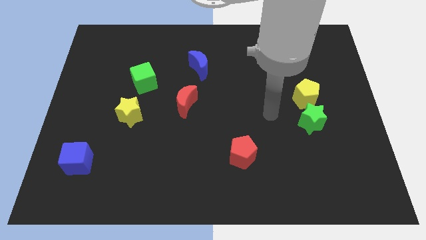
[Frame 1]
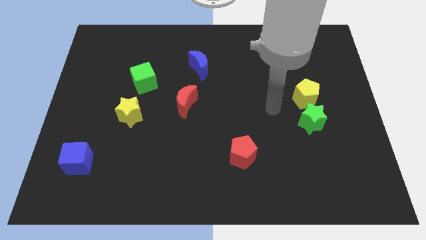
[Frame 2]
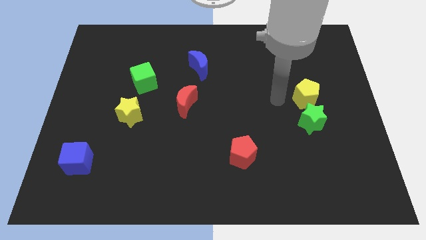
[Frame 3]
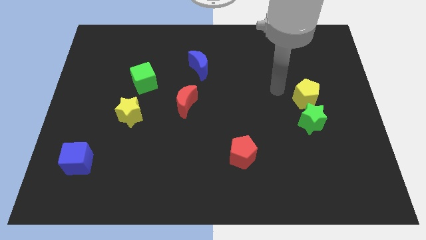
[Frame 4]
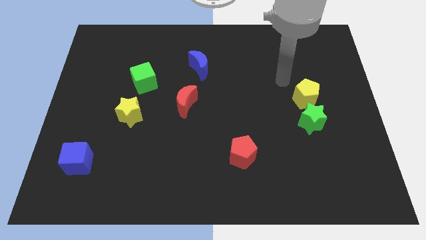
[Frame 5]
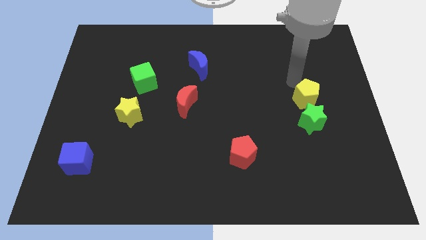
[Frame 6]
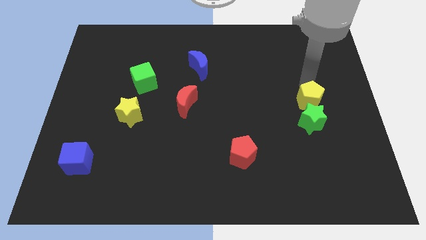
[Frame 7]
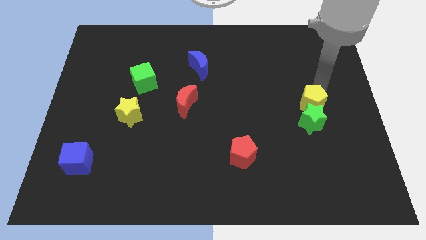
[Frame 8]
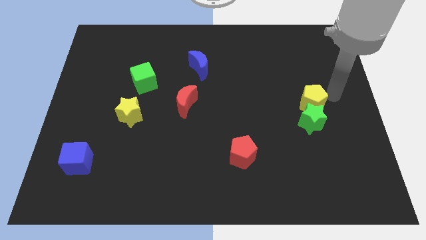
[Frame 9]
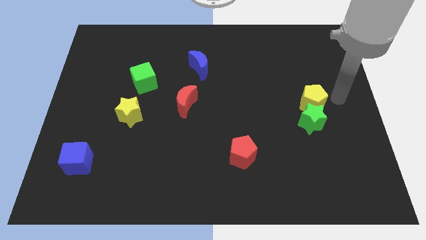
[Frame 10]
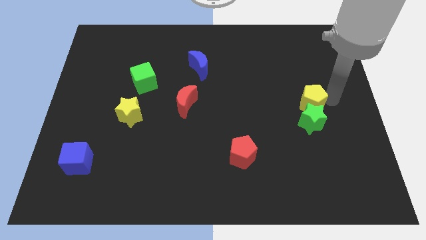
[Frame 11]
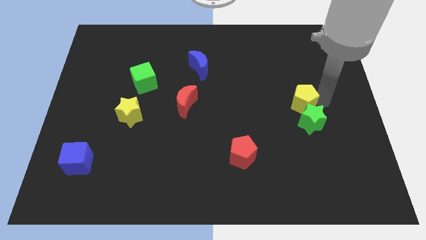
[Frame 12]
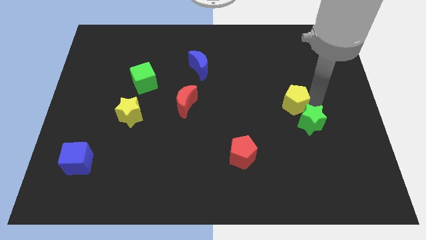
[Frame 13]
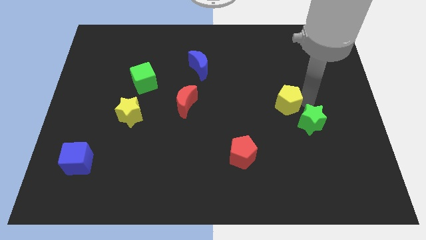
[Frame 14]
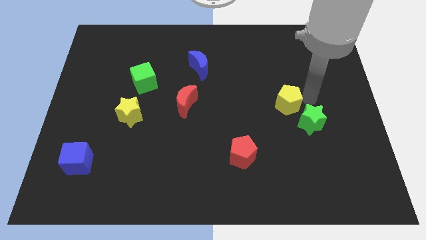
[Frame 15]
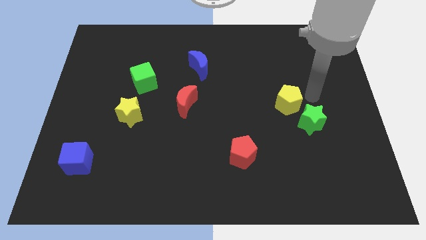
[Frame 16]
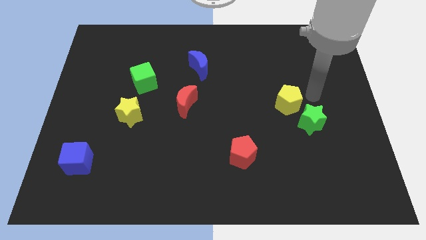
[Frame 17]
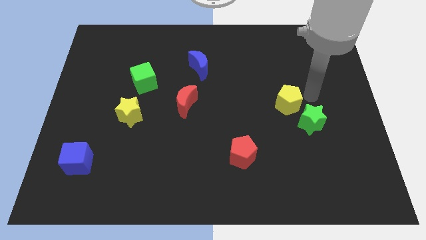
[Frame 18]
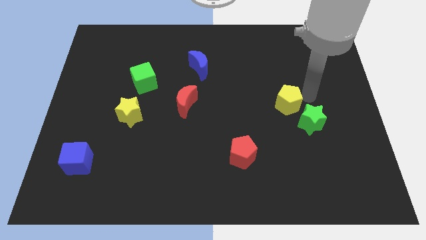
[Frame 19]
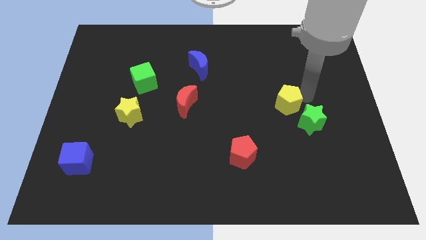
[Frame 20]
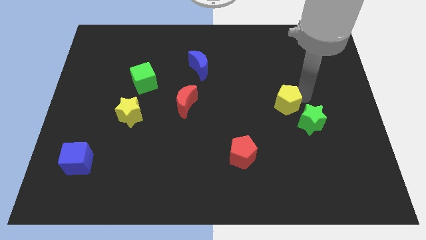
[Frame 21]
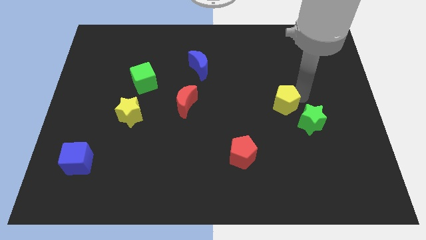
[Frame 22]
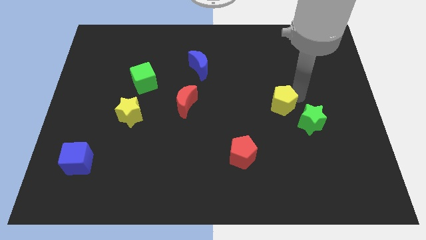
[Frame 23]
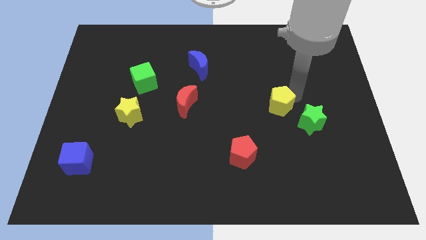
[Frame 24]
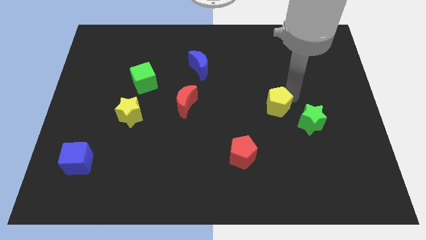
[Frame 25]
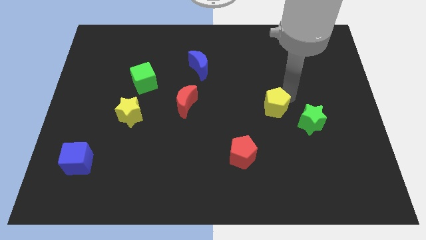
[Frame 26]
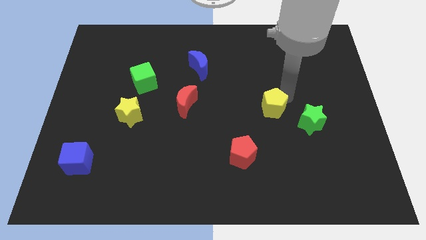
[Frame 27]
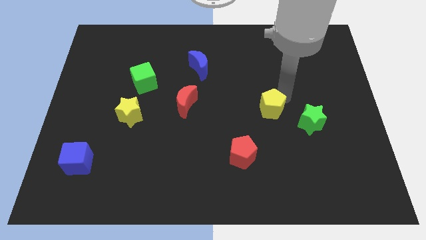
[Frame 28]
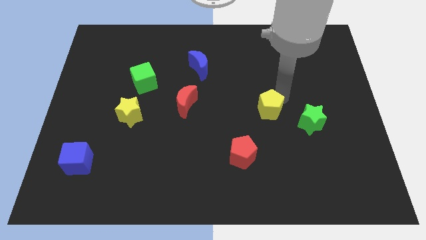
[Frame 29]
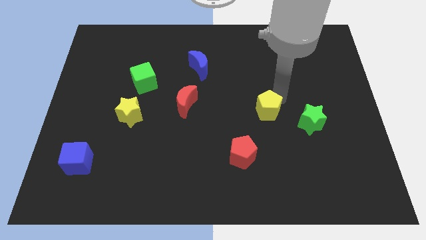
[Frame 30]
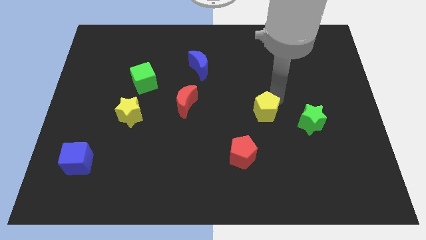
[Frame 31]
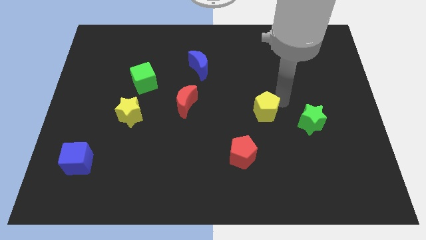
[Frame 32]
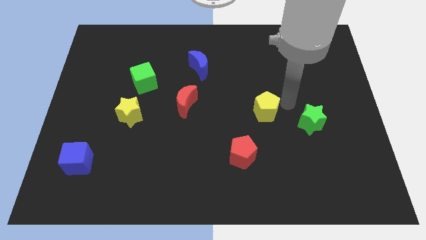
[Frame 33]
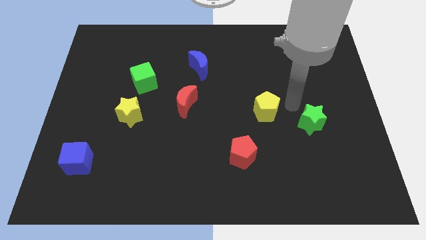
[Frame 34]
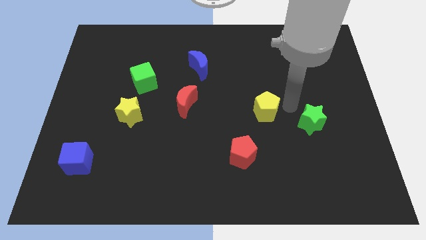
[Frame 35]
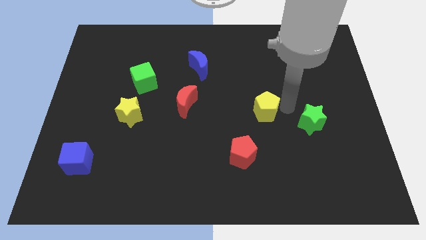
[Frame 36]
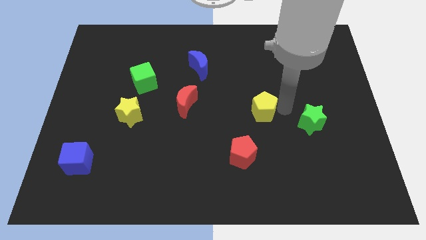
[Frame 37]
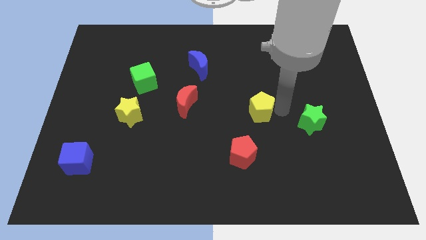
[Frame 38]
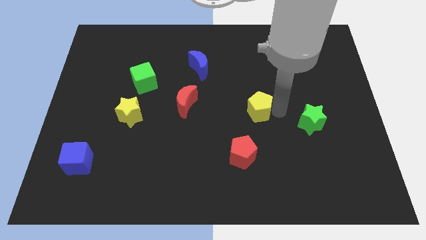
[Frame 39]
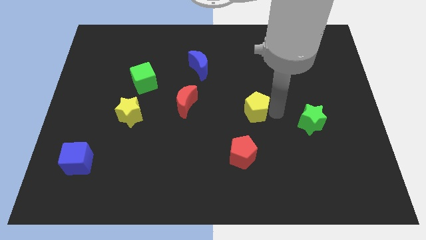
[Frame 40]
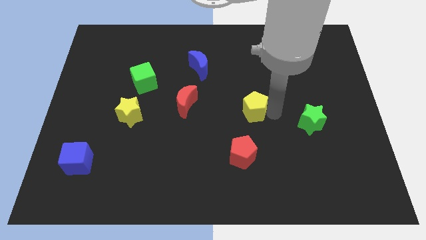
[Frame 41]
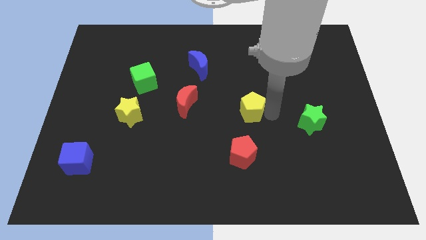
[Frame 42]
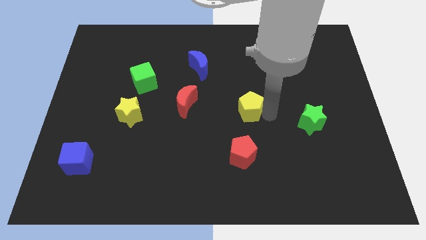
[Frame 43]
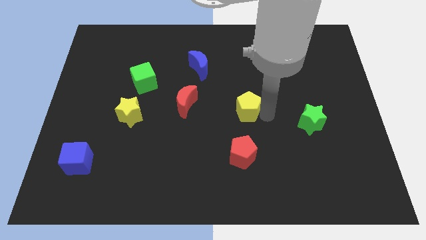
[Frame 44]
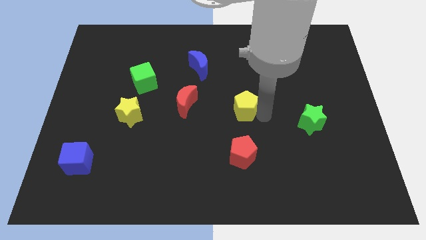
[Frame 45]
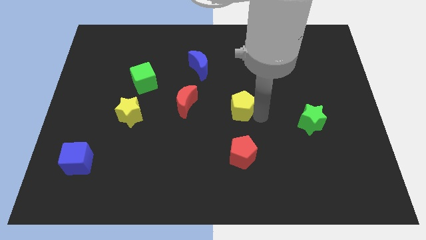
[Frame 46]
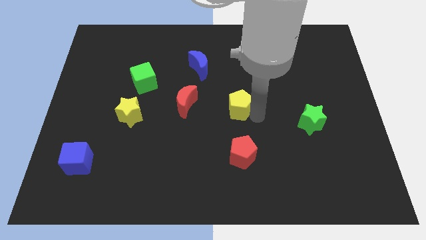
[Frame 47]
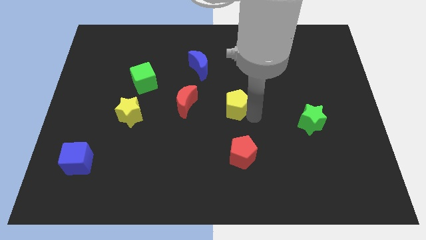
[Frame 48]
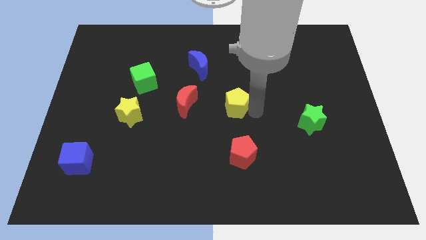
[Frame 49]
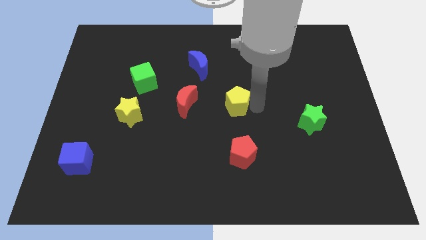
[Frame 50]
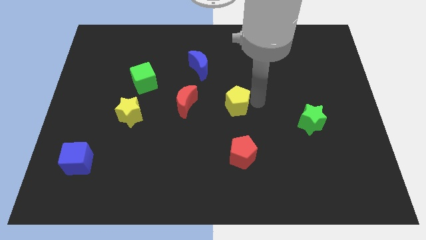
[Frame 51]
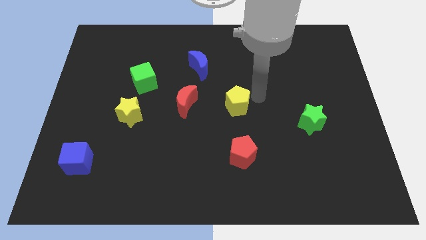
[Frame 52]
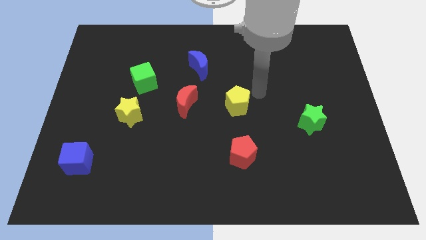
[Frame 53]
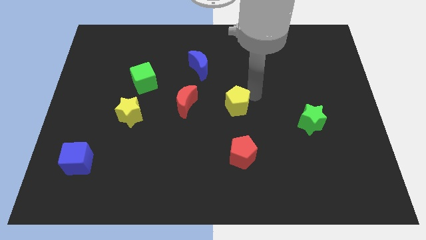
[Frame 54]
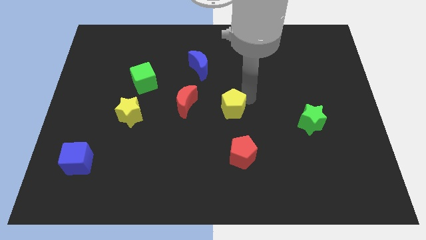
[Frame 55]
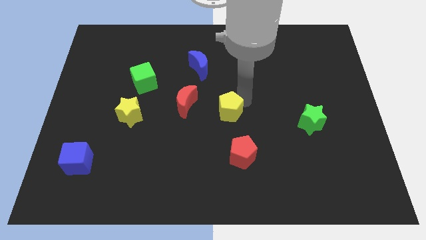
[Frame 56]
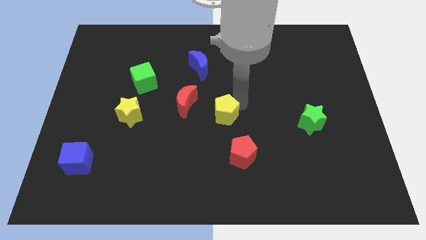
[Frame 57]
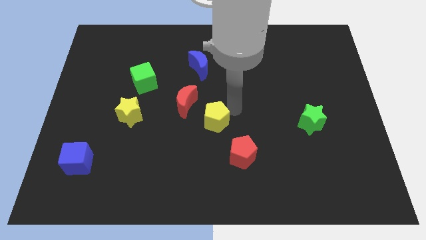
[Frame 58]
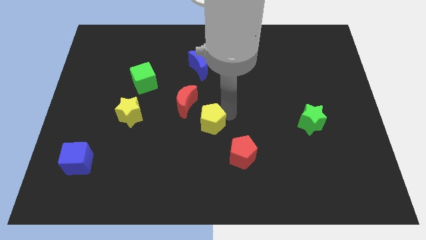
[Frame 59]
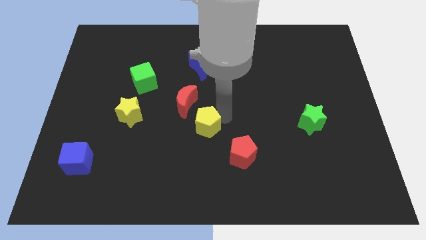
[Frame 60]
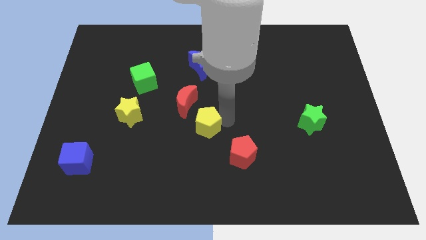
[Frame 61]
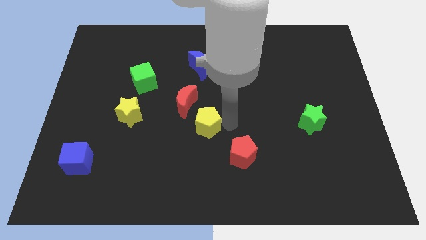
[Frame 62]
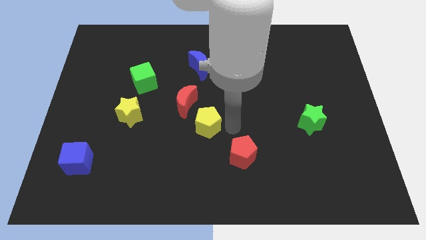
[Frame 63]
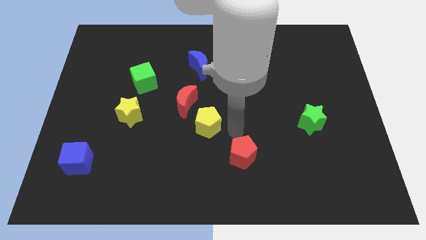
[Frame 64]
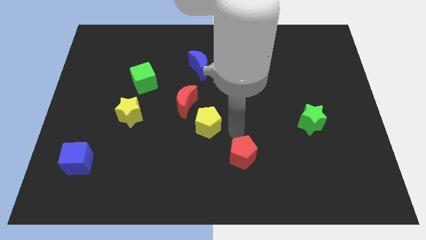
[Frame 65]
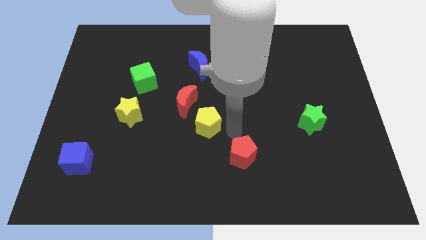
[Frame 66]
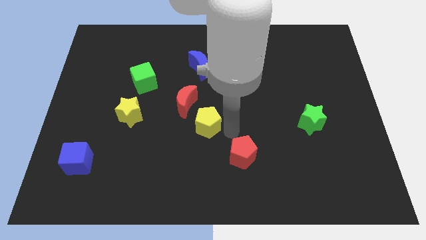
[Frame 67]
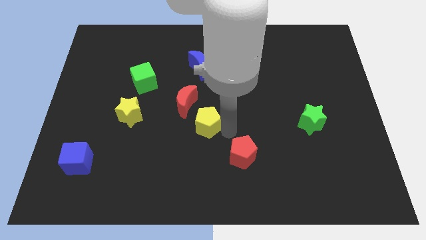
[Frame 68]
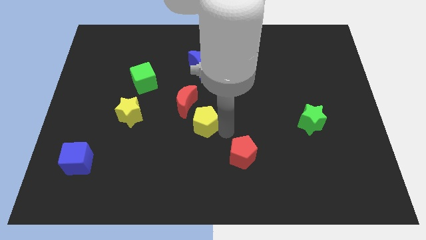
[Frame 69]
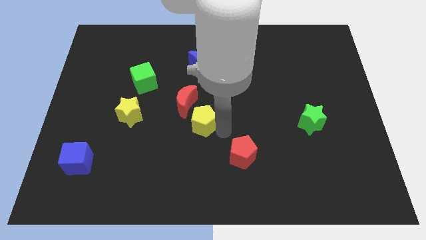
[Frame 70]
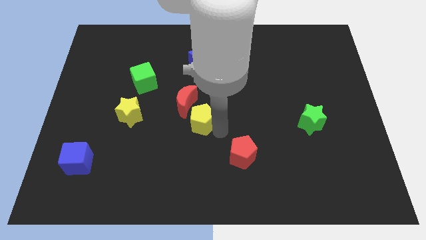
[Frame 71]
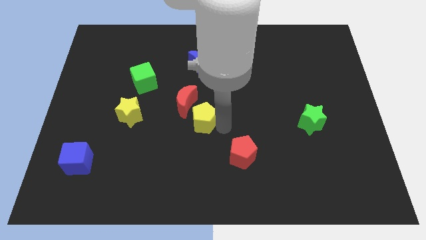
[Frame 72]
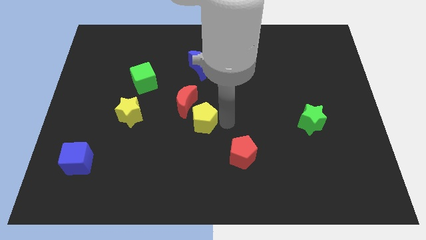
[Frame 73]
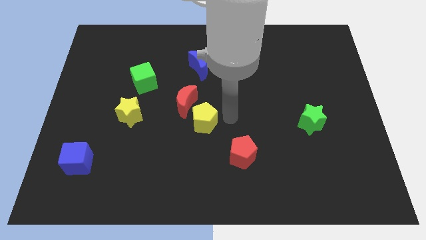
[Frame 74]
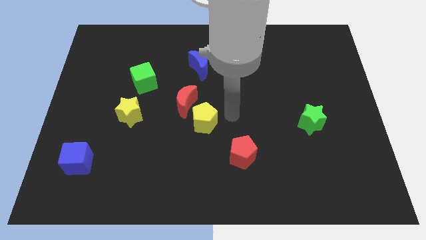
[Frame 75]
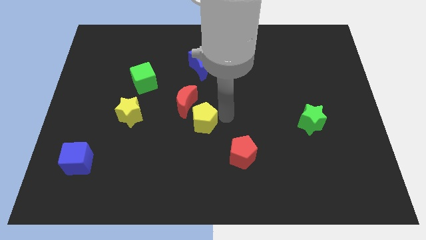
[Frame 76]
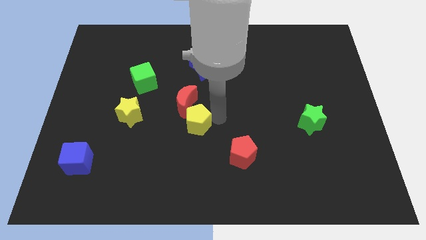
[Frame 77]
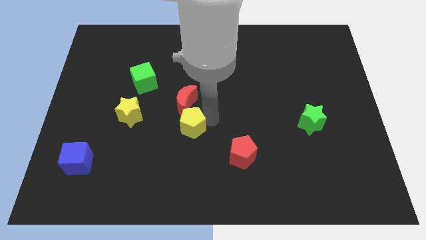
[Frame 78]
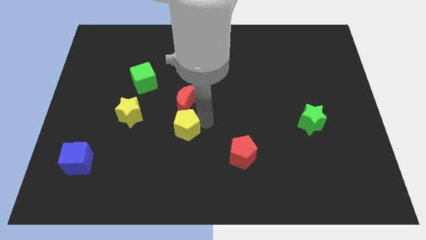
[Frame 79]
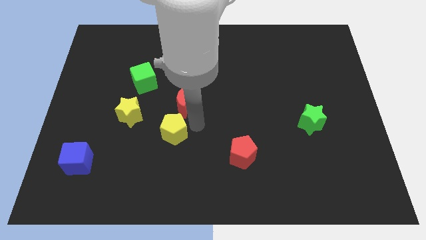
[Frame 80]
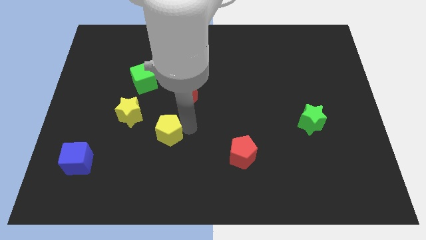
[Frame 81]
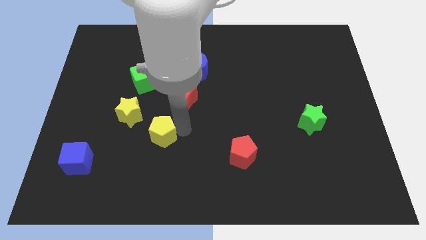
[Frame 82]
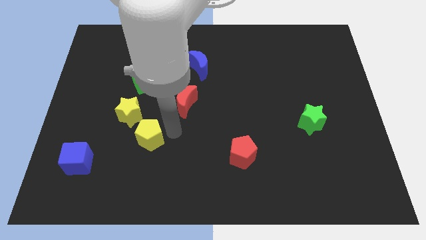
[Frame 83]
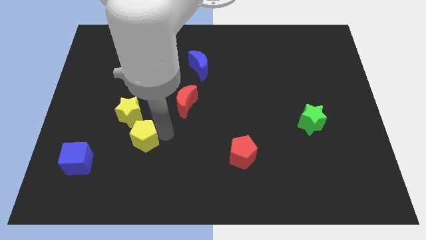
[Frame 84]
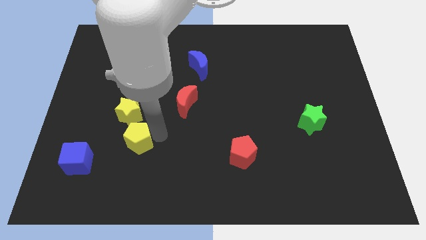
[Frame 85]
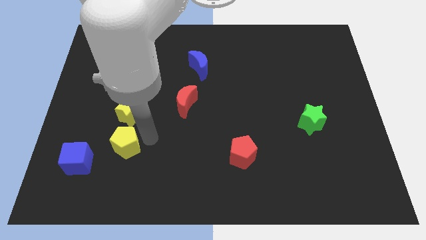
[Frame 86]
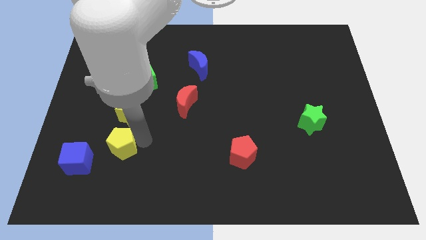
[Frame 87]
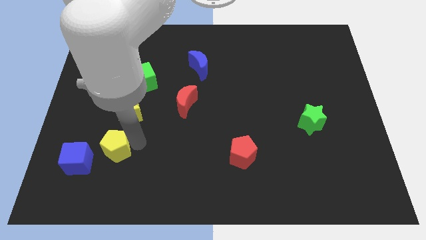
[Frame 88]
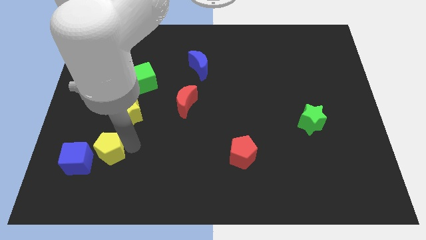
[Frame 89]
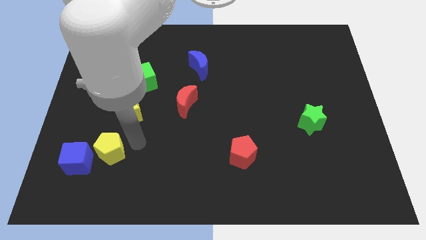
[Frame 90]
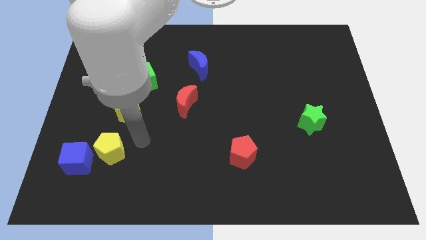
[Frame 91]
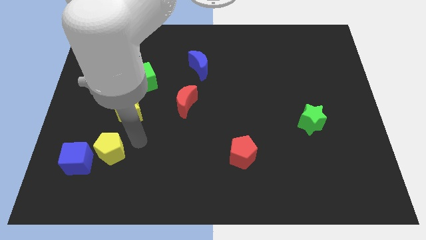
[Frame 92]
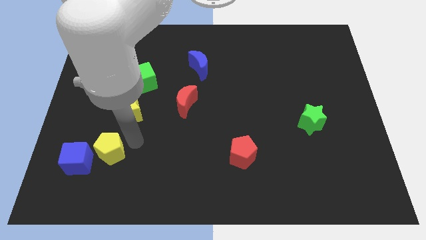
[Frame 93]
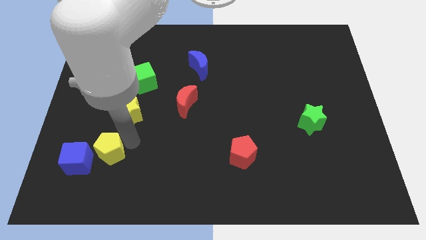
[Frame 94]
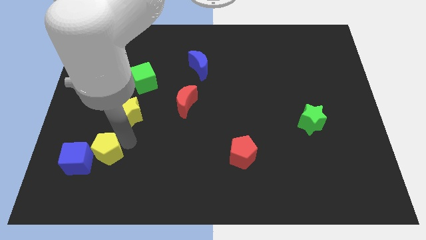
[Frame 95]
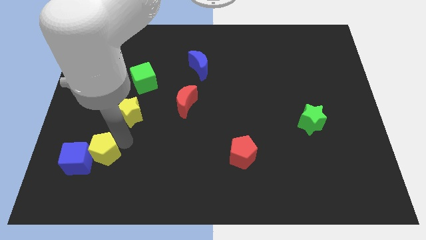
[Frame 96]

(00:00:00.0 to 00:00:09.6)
push the yellow pentagon close to the blue cube
